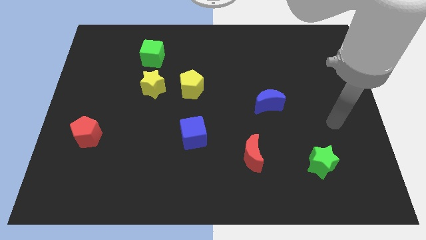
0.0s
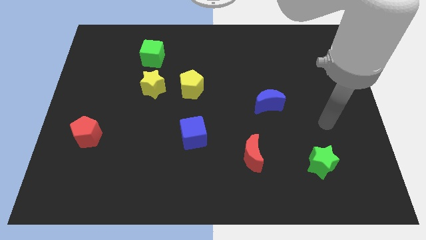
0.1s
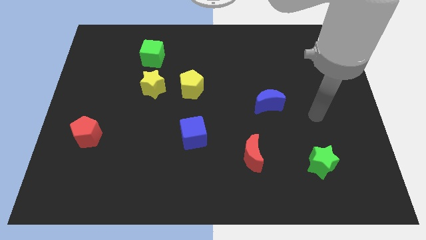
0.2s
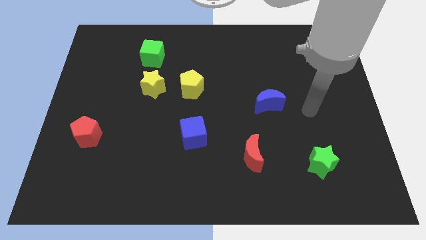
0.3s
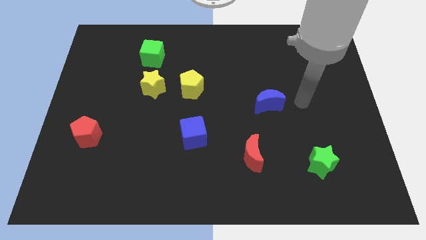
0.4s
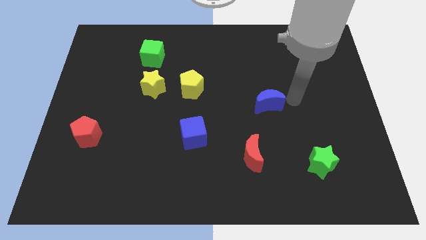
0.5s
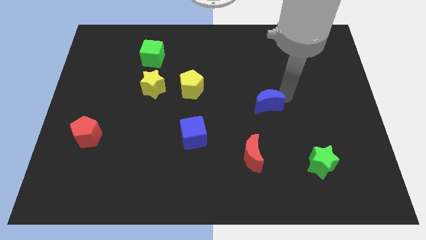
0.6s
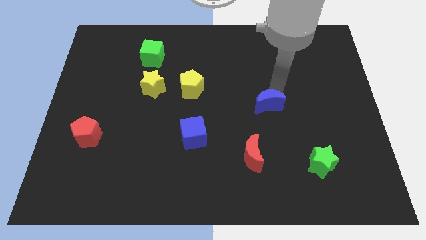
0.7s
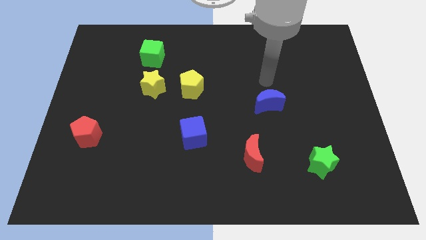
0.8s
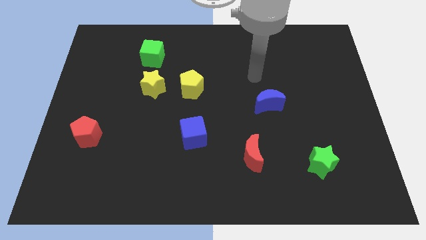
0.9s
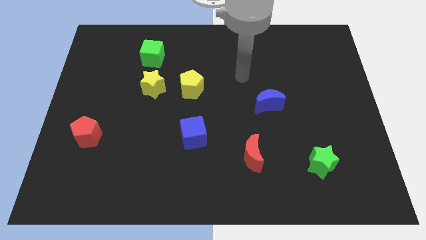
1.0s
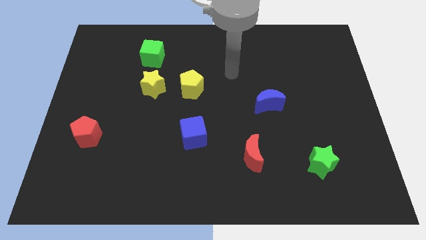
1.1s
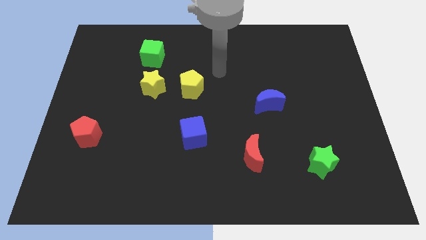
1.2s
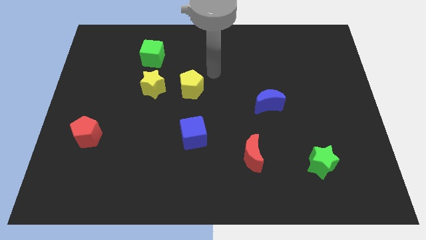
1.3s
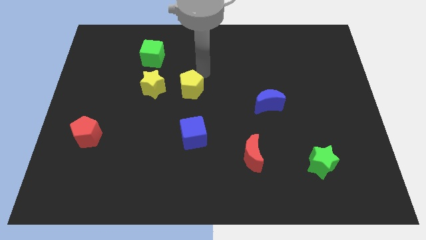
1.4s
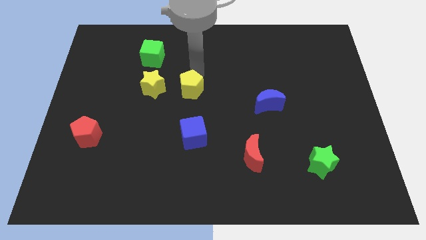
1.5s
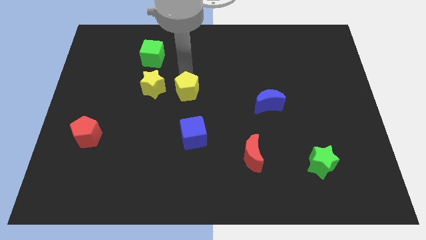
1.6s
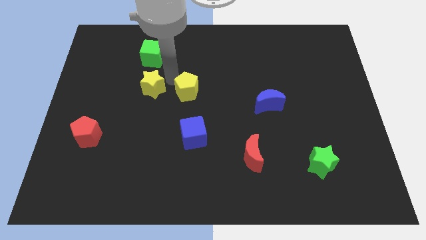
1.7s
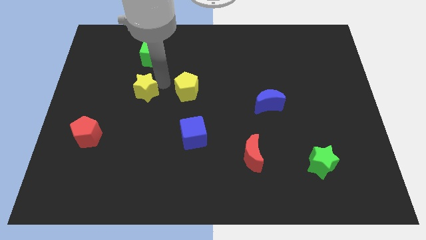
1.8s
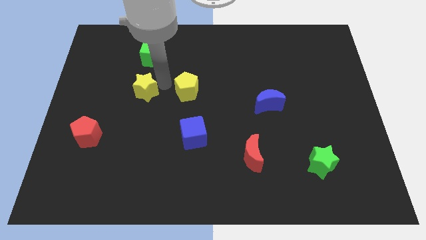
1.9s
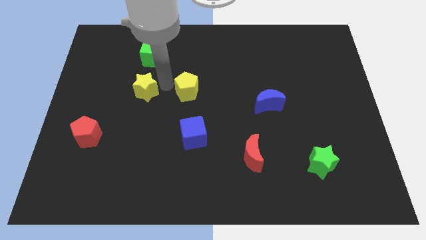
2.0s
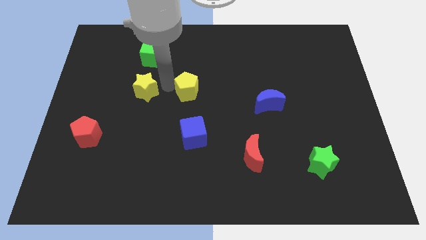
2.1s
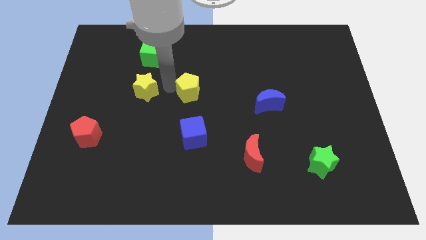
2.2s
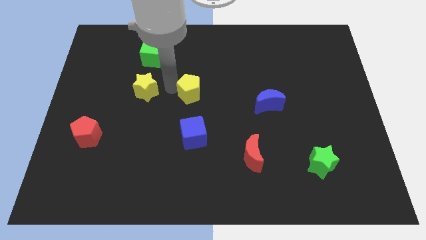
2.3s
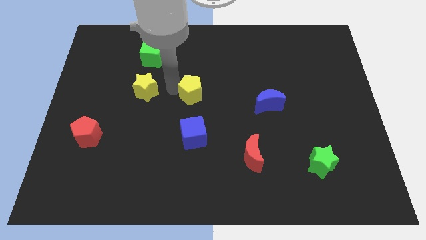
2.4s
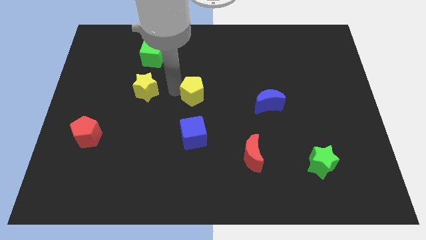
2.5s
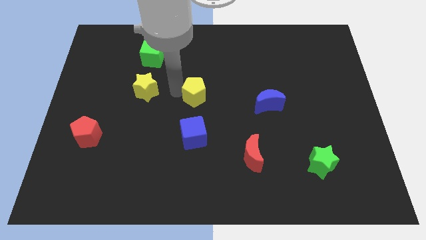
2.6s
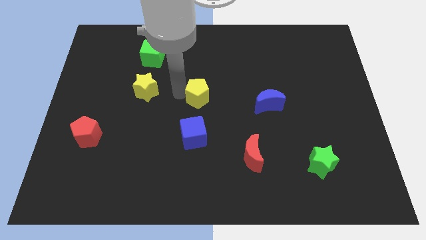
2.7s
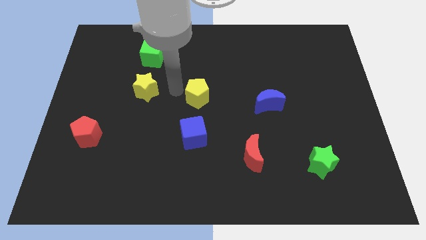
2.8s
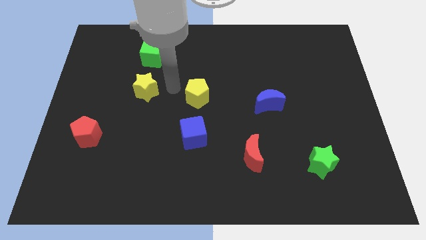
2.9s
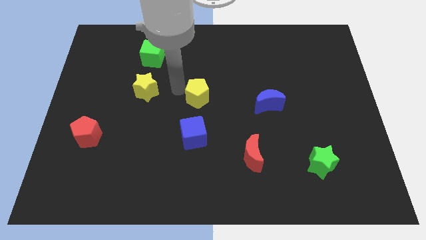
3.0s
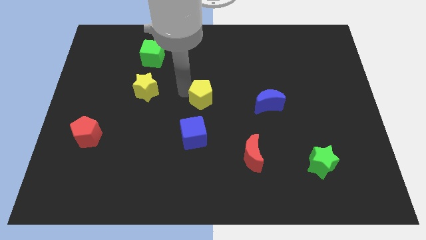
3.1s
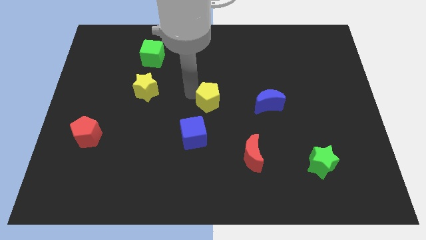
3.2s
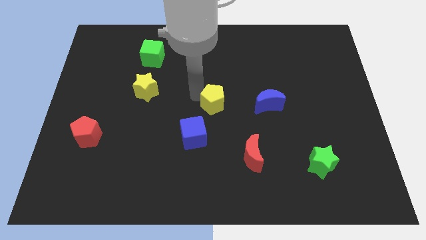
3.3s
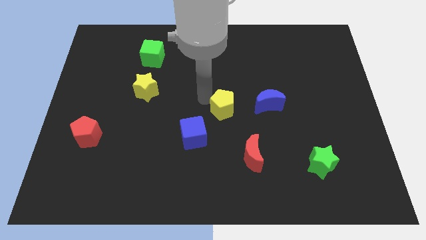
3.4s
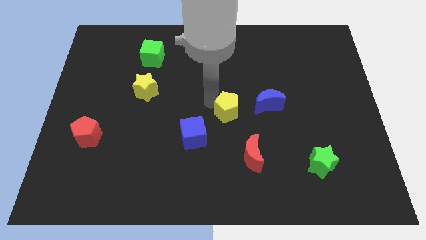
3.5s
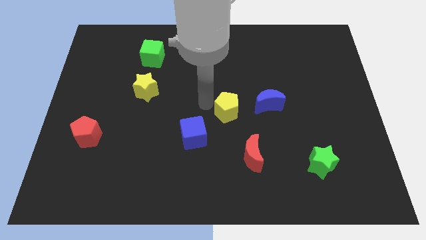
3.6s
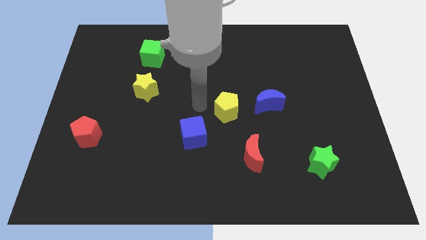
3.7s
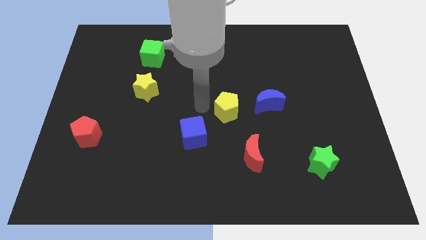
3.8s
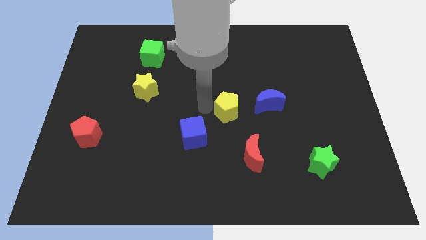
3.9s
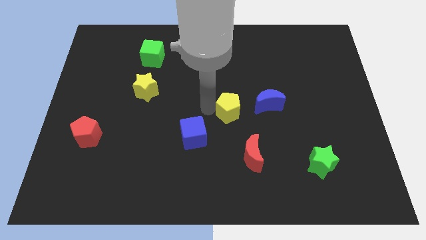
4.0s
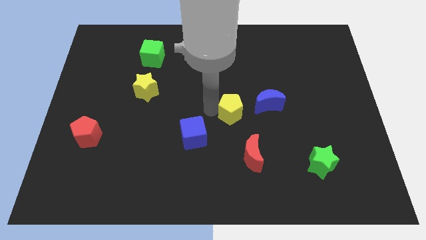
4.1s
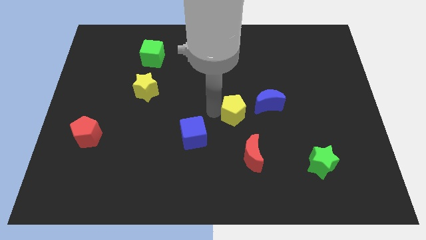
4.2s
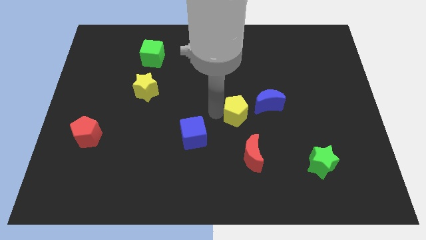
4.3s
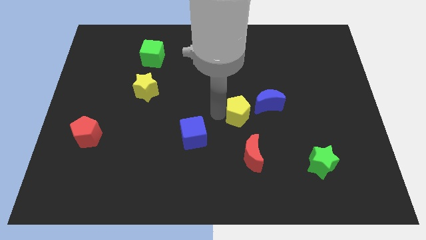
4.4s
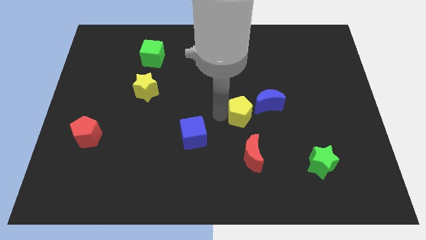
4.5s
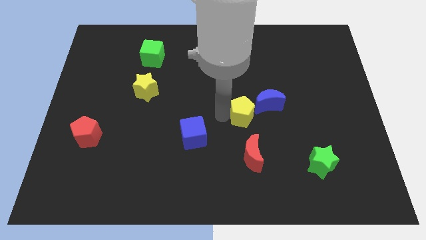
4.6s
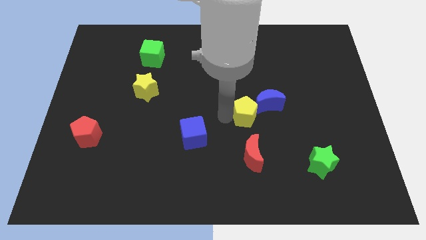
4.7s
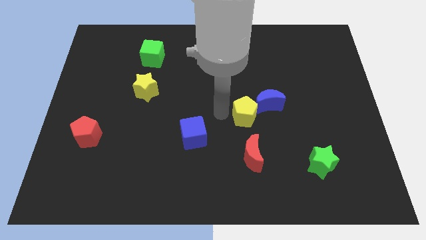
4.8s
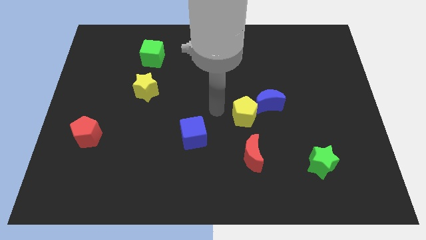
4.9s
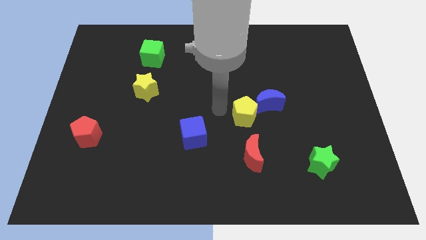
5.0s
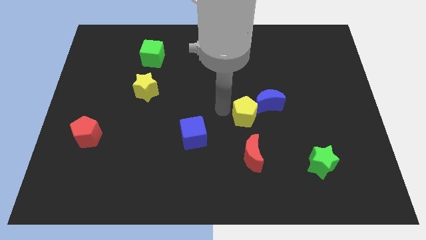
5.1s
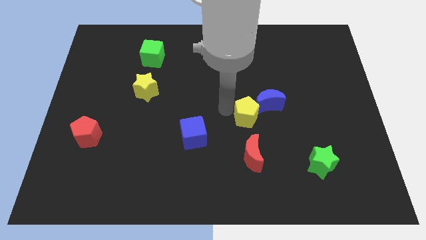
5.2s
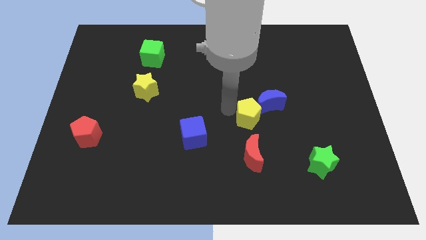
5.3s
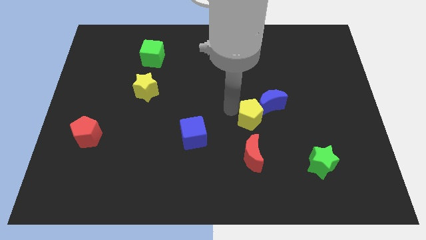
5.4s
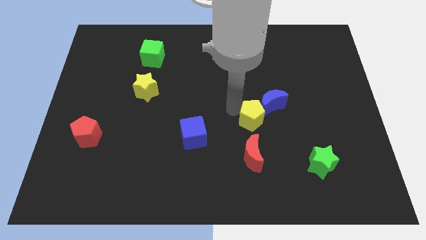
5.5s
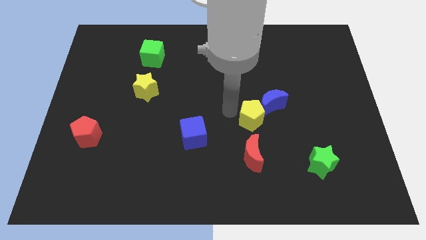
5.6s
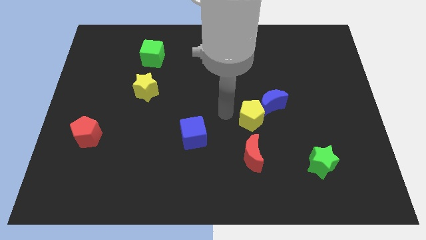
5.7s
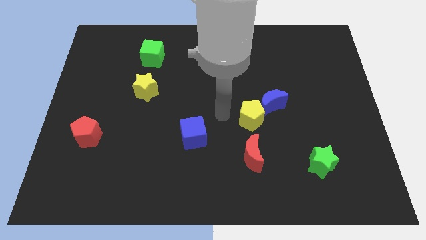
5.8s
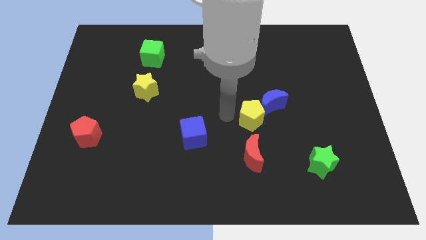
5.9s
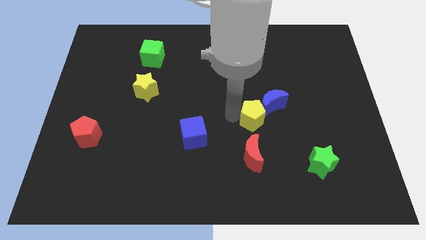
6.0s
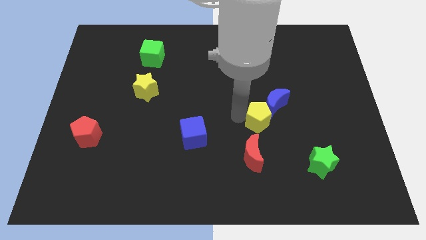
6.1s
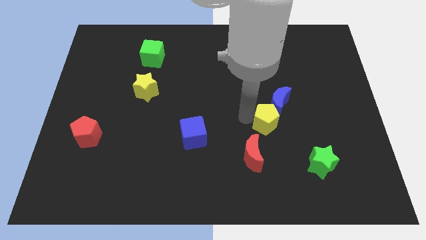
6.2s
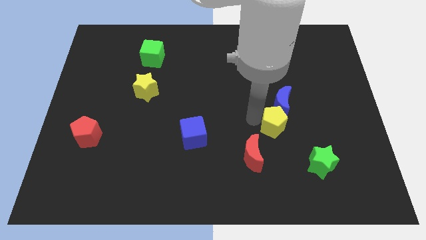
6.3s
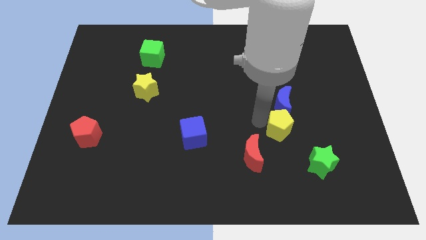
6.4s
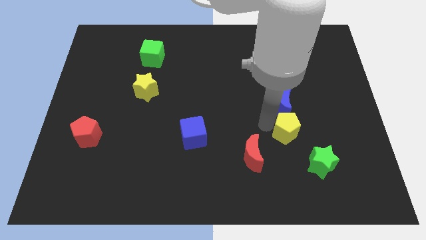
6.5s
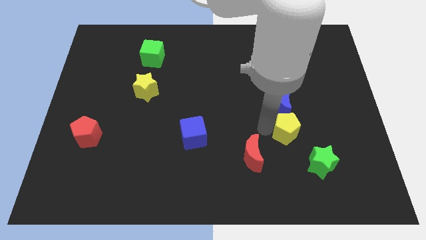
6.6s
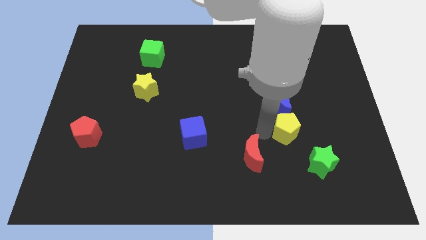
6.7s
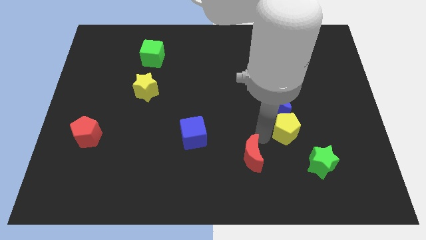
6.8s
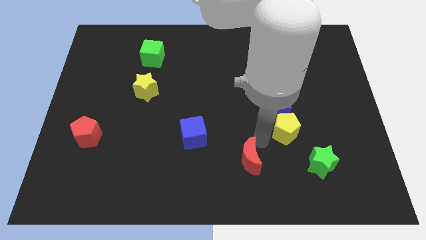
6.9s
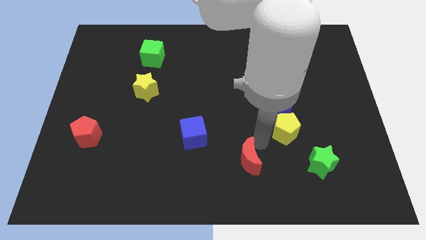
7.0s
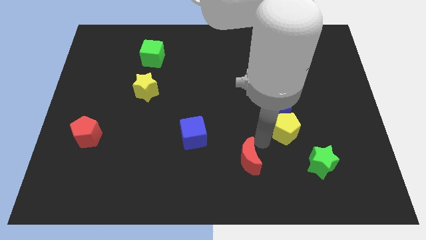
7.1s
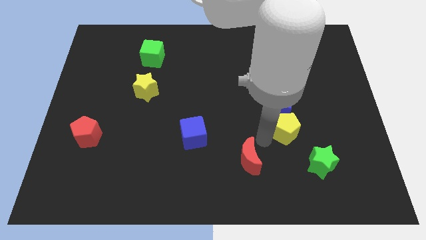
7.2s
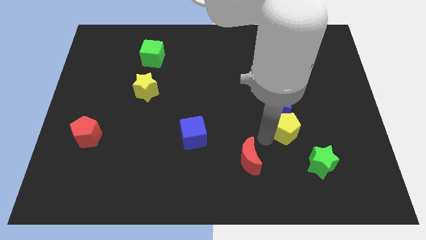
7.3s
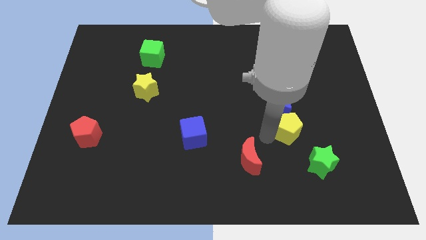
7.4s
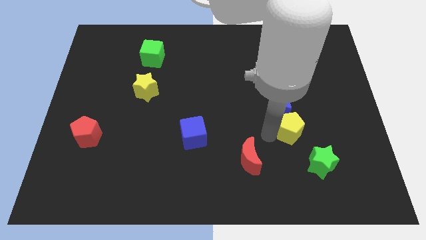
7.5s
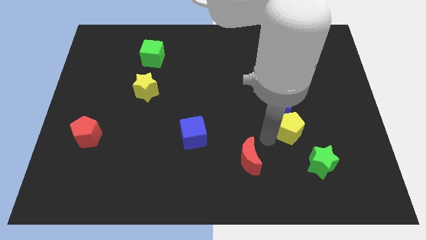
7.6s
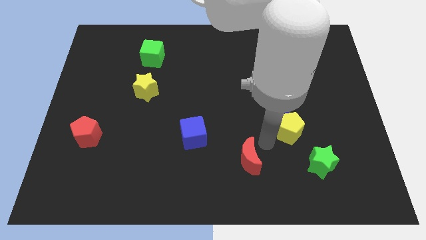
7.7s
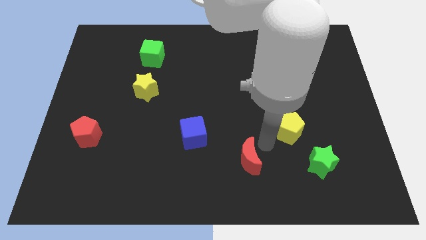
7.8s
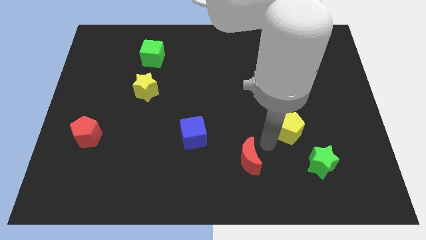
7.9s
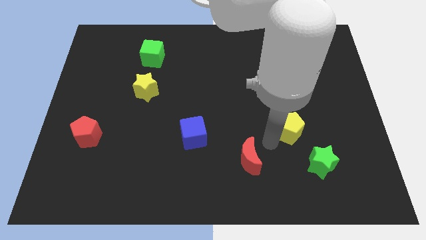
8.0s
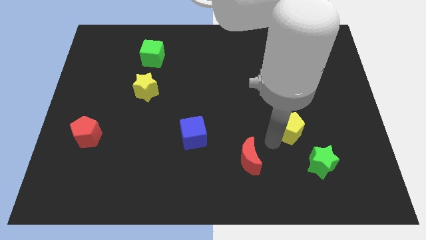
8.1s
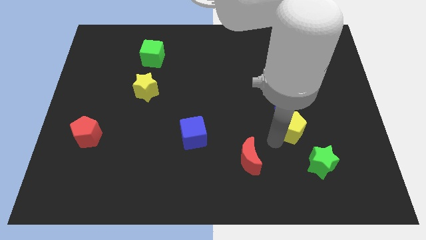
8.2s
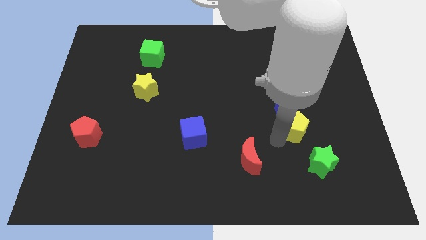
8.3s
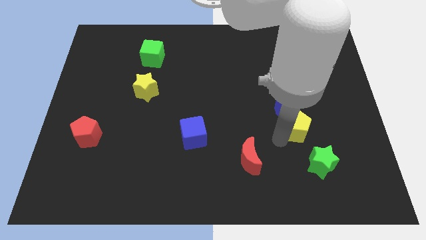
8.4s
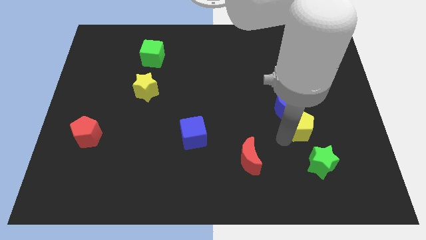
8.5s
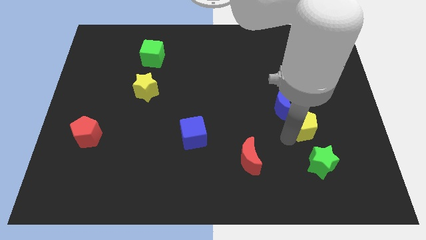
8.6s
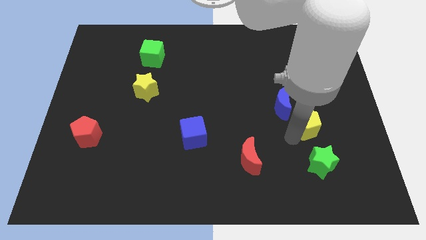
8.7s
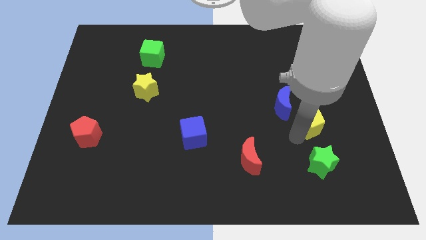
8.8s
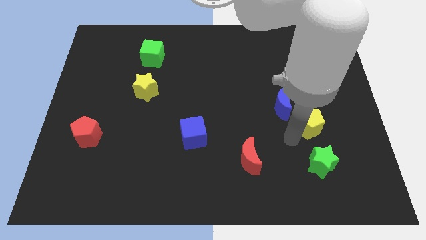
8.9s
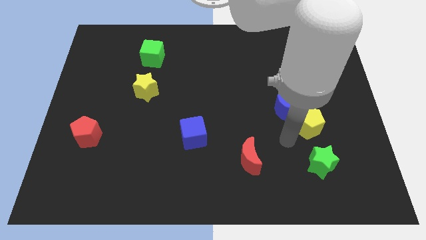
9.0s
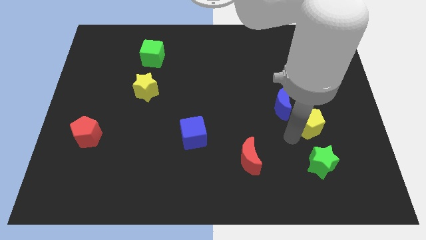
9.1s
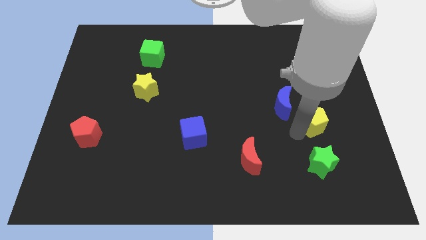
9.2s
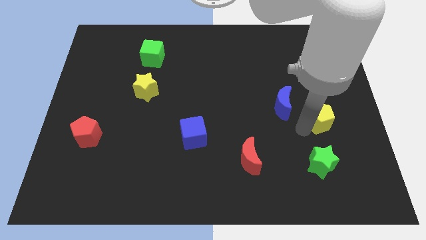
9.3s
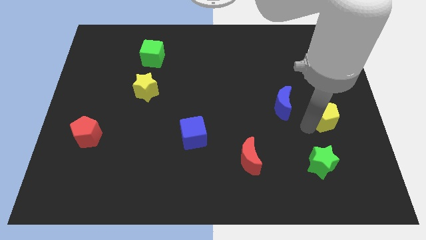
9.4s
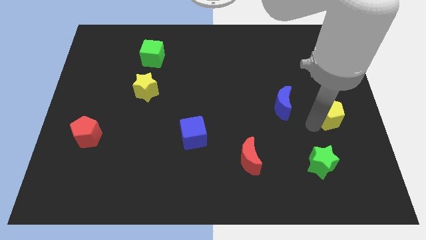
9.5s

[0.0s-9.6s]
move the yellow pentagon to the right side
